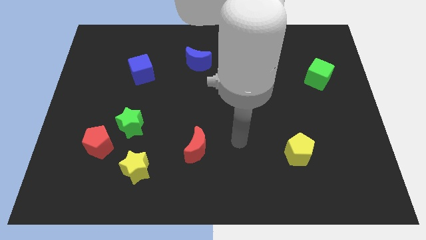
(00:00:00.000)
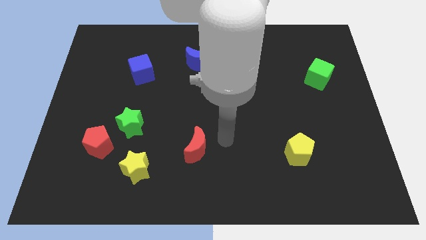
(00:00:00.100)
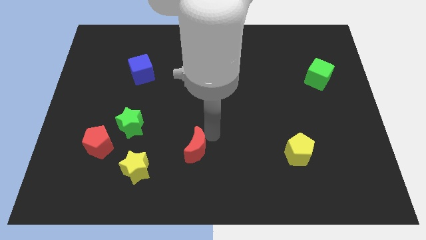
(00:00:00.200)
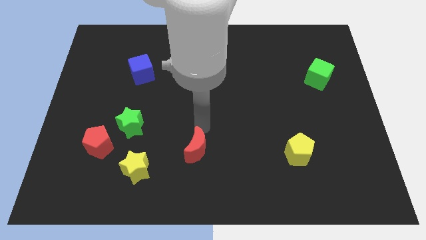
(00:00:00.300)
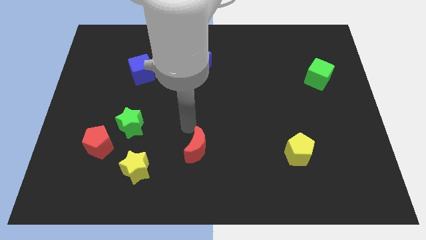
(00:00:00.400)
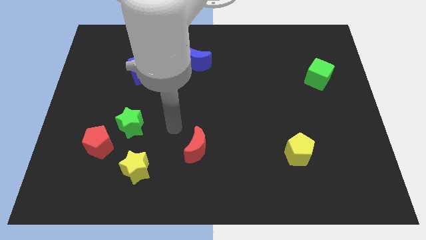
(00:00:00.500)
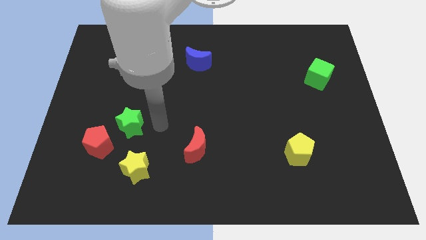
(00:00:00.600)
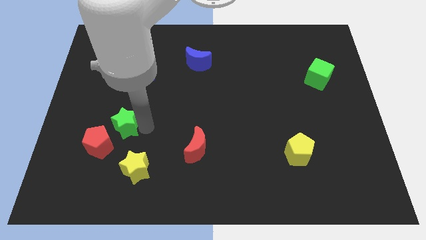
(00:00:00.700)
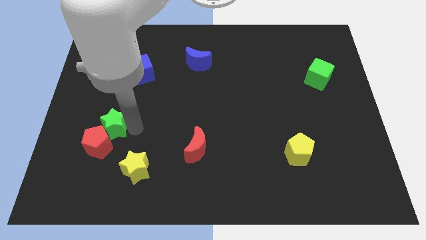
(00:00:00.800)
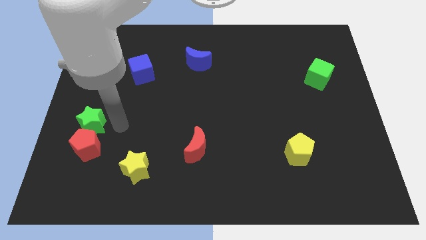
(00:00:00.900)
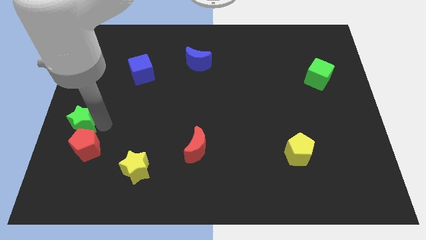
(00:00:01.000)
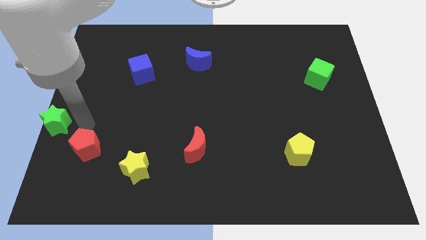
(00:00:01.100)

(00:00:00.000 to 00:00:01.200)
separate the red pentagon from the green star

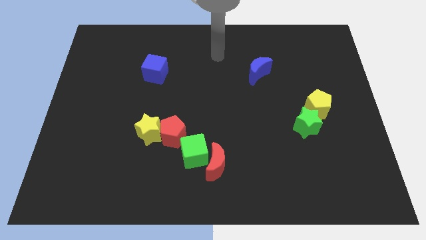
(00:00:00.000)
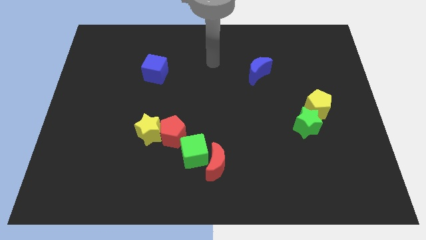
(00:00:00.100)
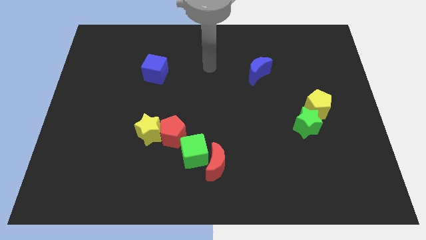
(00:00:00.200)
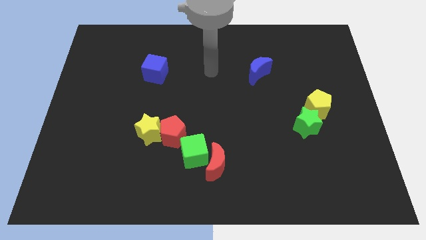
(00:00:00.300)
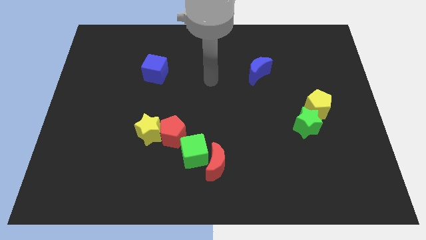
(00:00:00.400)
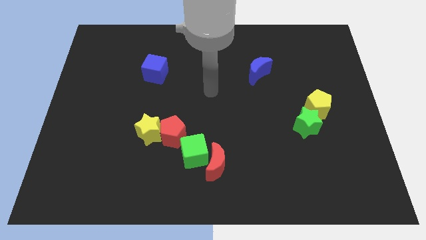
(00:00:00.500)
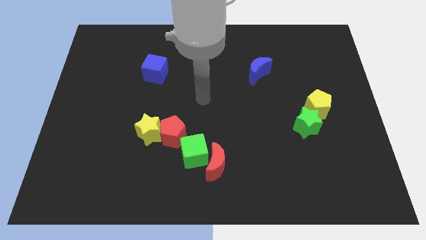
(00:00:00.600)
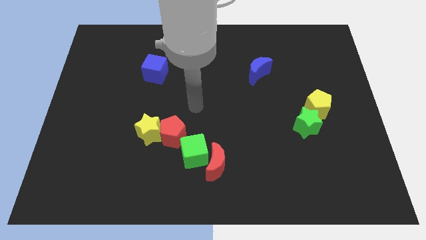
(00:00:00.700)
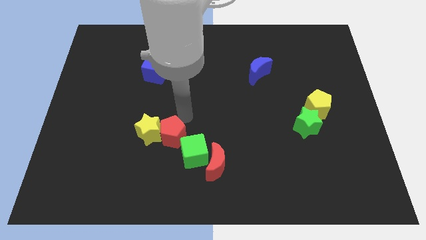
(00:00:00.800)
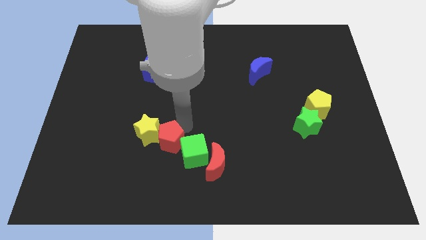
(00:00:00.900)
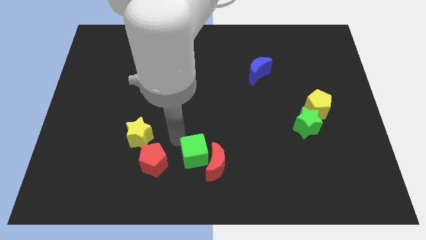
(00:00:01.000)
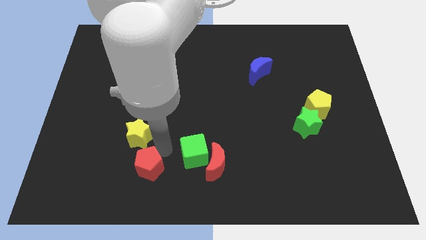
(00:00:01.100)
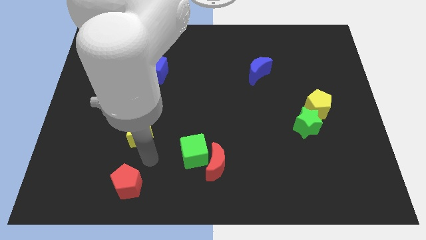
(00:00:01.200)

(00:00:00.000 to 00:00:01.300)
pull the yellow star apart from the red pentagon

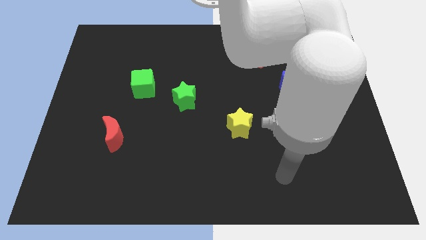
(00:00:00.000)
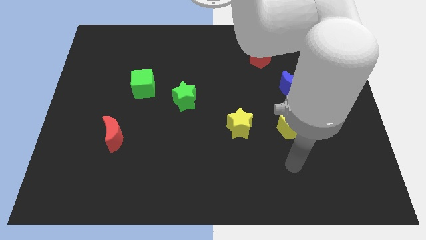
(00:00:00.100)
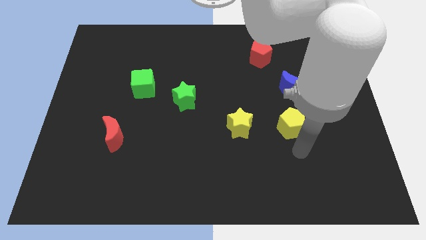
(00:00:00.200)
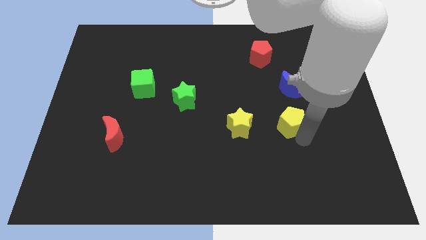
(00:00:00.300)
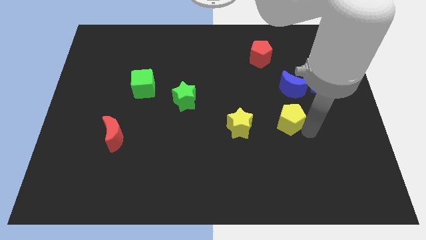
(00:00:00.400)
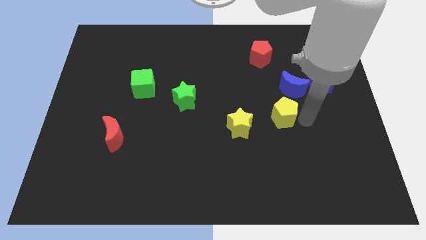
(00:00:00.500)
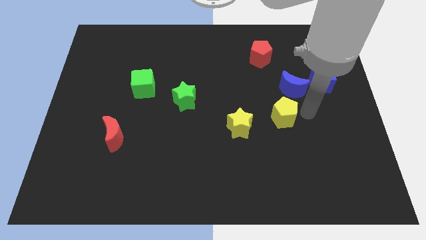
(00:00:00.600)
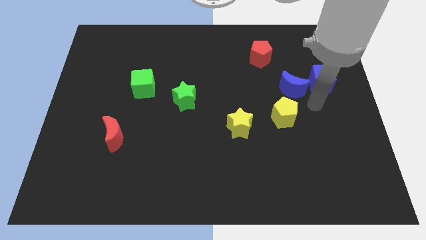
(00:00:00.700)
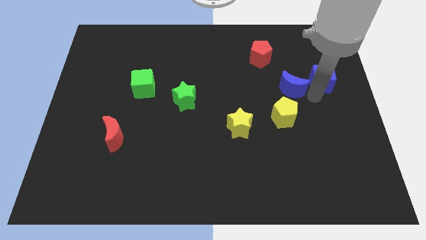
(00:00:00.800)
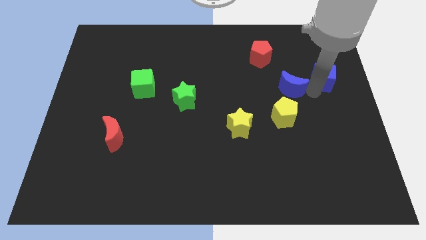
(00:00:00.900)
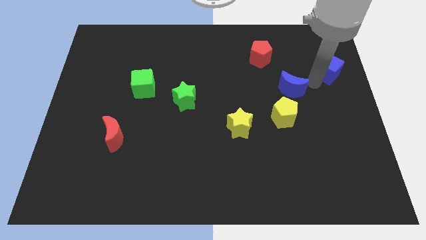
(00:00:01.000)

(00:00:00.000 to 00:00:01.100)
separate the blue moon from the blue cube

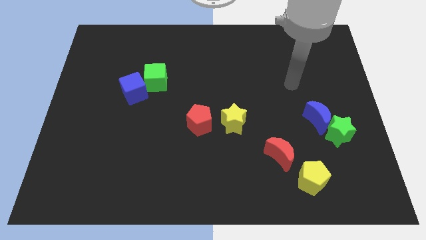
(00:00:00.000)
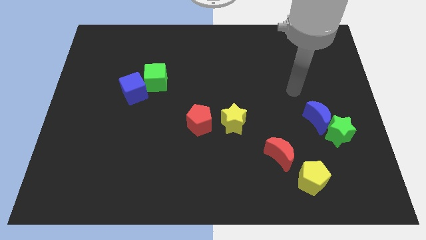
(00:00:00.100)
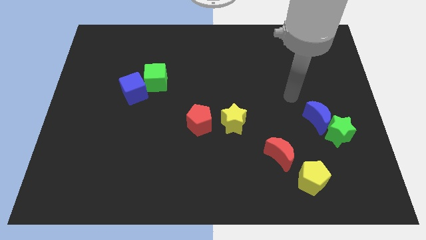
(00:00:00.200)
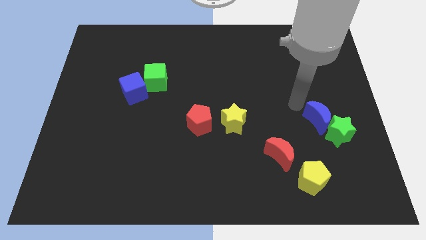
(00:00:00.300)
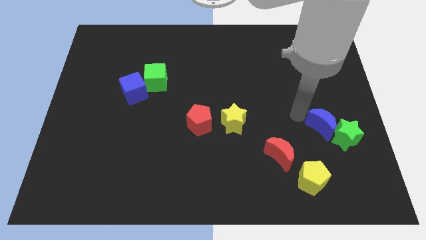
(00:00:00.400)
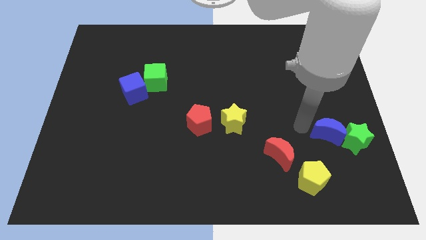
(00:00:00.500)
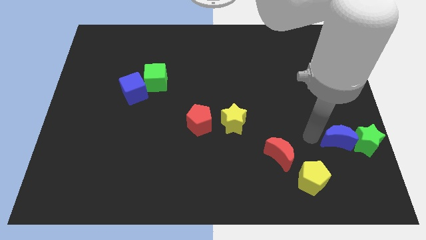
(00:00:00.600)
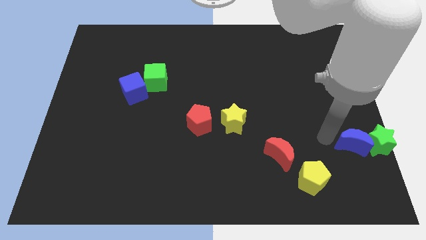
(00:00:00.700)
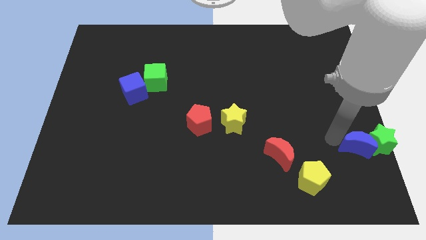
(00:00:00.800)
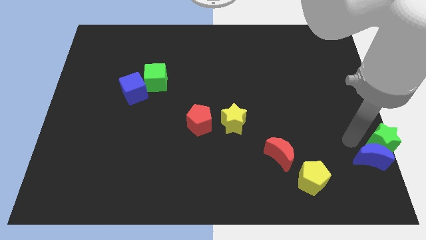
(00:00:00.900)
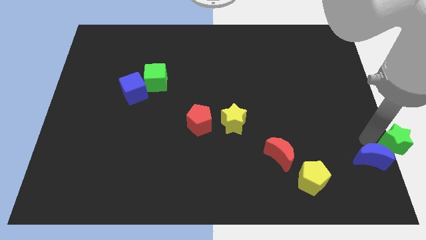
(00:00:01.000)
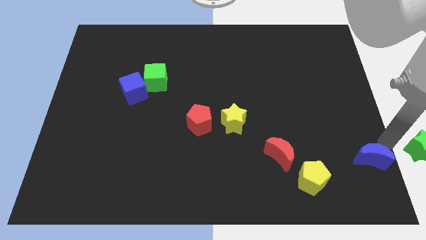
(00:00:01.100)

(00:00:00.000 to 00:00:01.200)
separate the blue moon from the green star

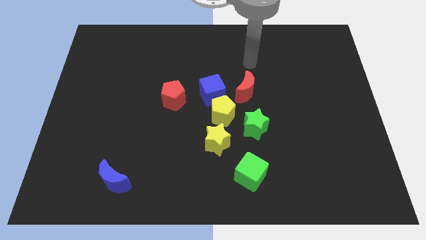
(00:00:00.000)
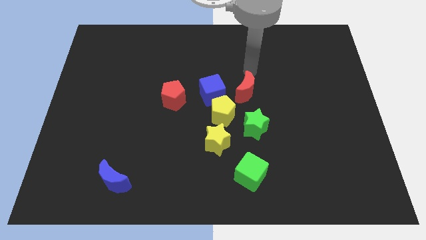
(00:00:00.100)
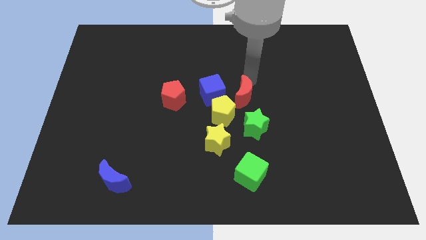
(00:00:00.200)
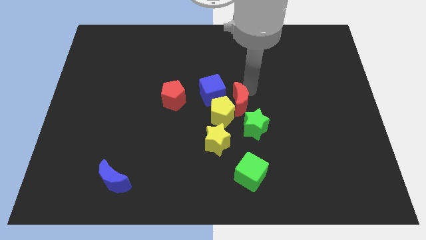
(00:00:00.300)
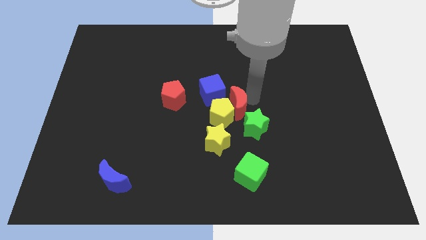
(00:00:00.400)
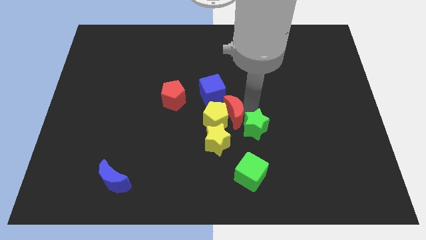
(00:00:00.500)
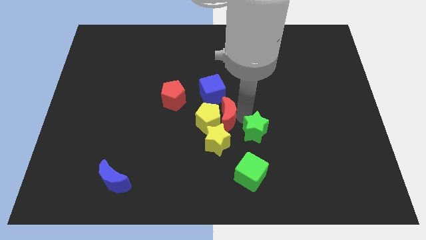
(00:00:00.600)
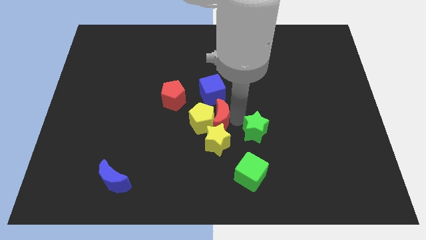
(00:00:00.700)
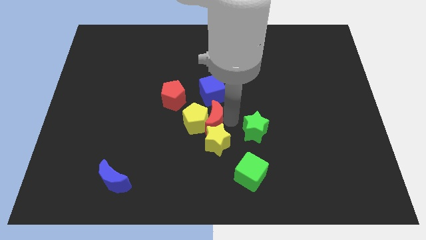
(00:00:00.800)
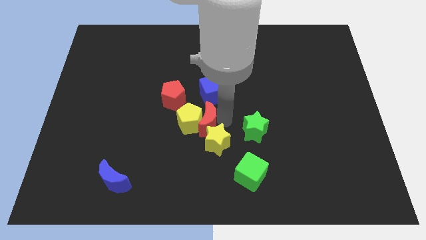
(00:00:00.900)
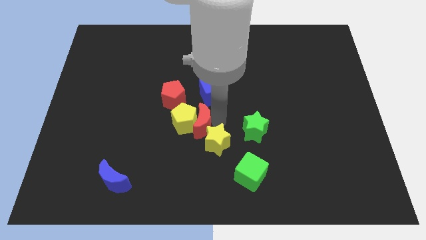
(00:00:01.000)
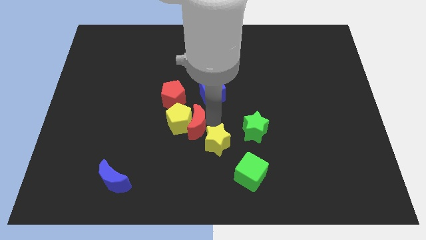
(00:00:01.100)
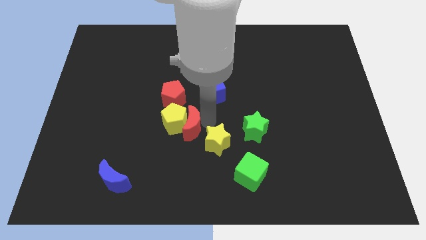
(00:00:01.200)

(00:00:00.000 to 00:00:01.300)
pull the yellow pentagon apart from the group of blocks

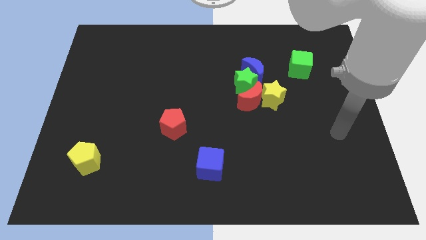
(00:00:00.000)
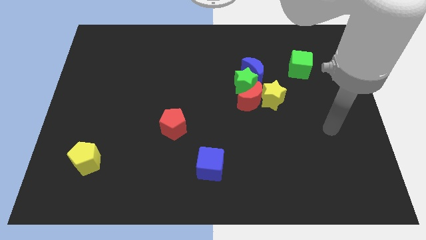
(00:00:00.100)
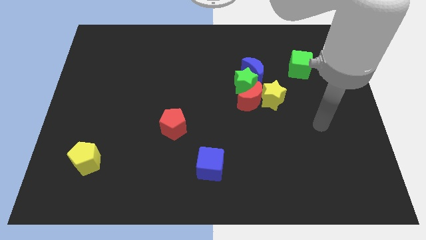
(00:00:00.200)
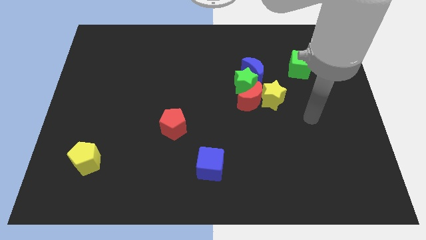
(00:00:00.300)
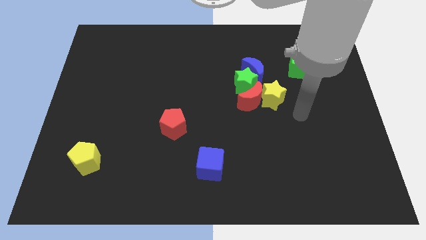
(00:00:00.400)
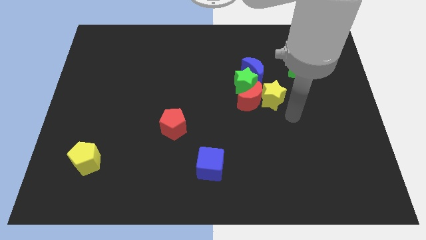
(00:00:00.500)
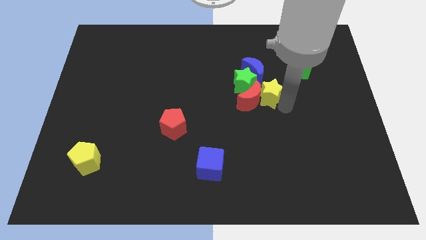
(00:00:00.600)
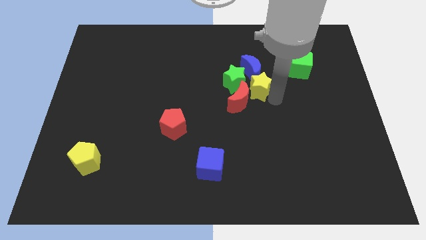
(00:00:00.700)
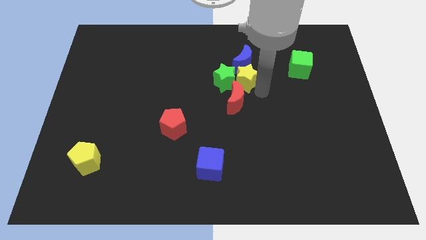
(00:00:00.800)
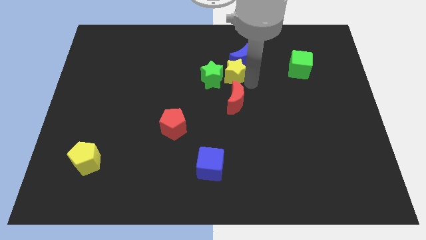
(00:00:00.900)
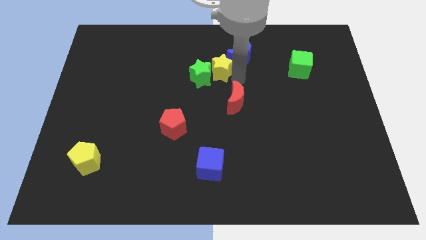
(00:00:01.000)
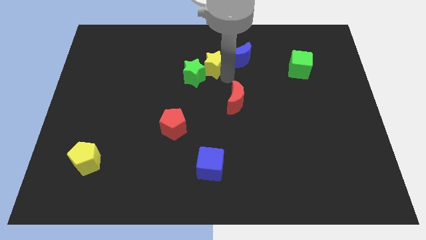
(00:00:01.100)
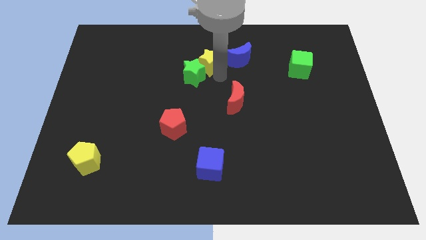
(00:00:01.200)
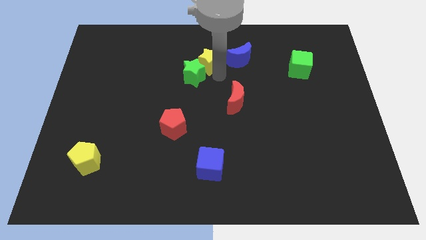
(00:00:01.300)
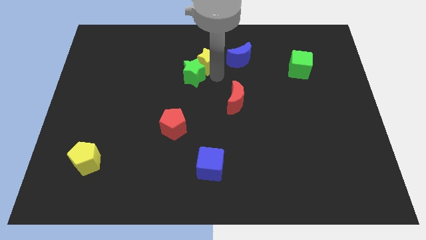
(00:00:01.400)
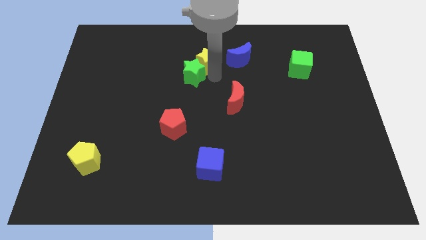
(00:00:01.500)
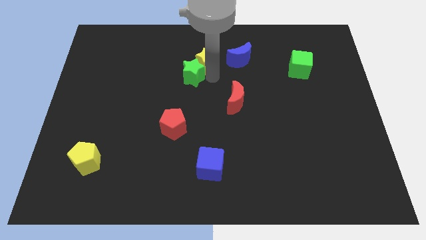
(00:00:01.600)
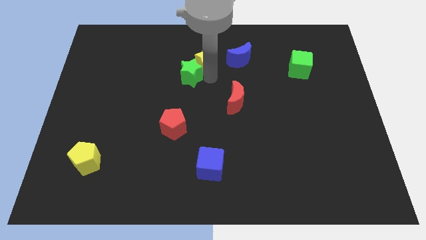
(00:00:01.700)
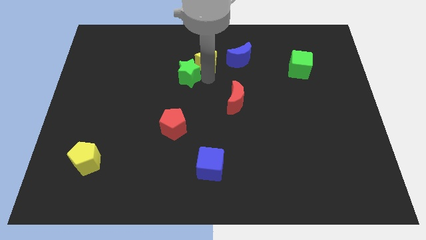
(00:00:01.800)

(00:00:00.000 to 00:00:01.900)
move the green star away from the group of blocks

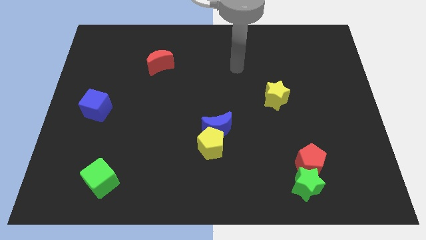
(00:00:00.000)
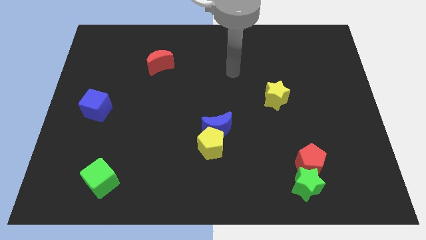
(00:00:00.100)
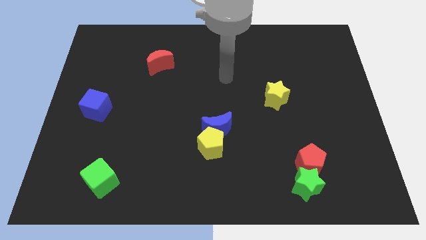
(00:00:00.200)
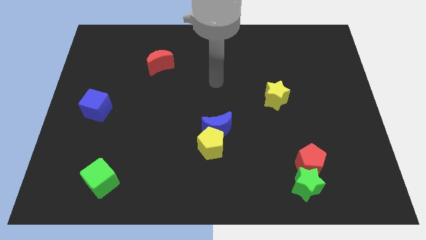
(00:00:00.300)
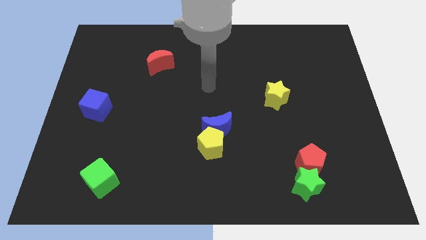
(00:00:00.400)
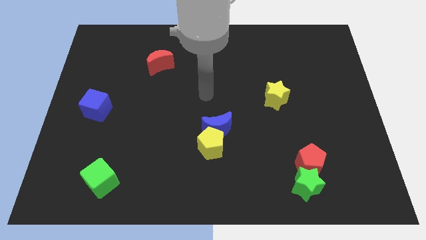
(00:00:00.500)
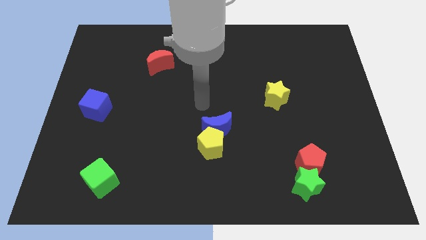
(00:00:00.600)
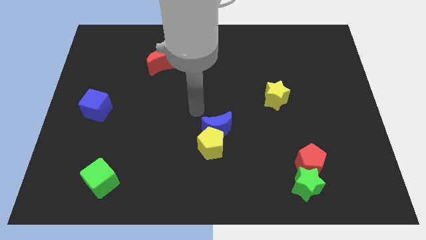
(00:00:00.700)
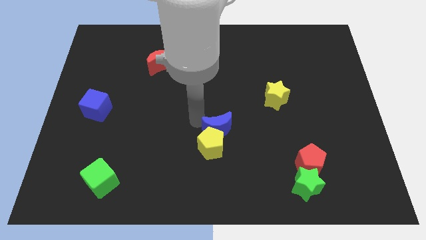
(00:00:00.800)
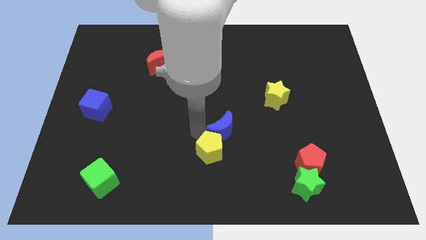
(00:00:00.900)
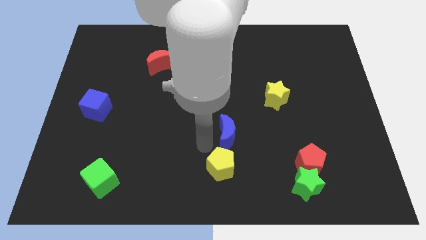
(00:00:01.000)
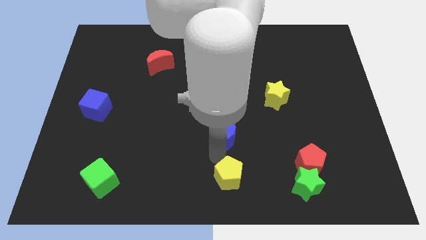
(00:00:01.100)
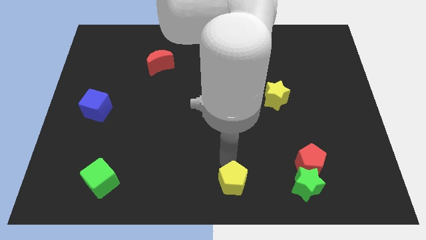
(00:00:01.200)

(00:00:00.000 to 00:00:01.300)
separate the blue moon from the yellow pentagon
